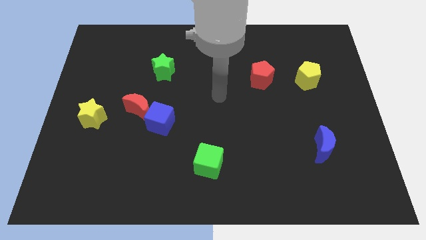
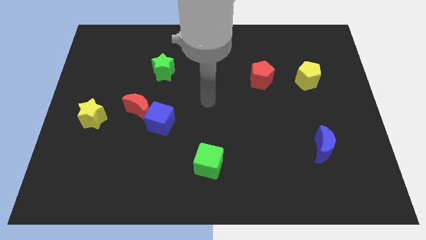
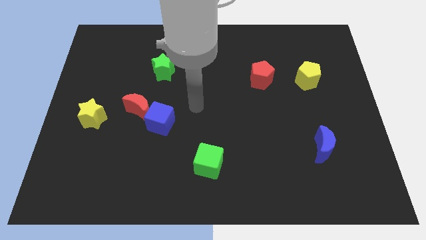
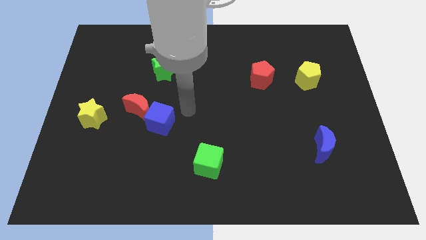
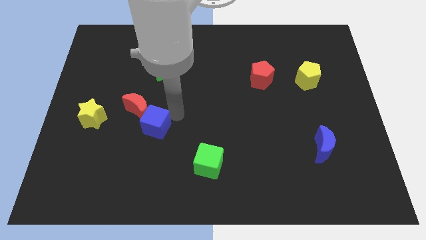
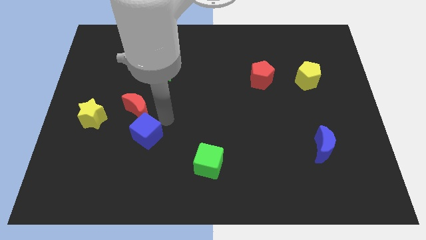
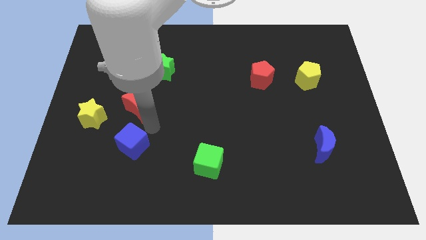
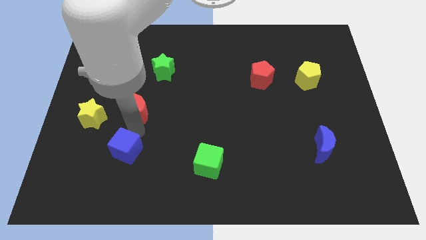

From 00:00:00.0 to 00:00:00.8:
move the red moon away from the blue cube

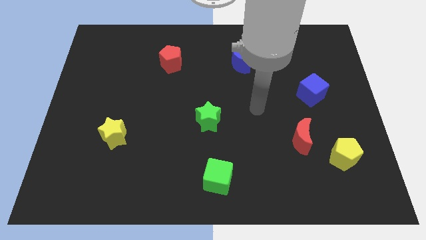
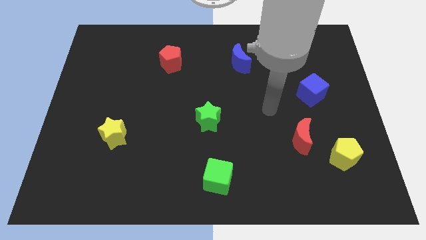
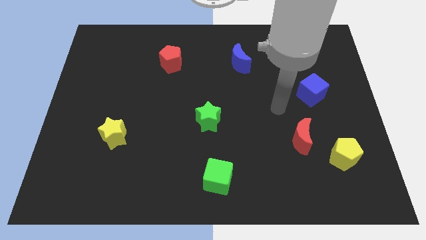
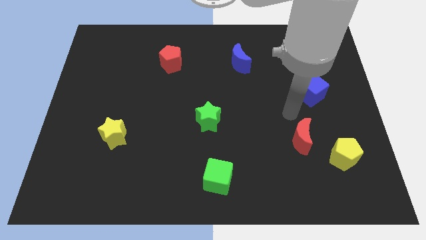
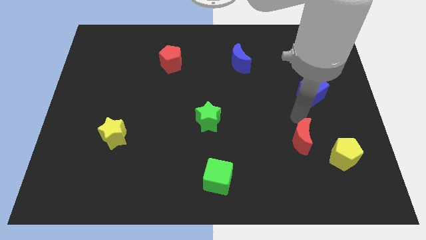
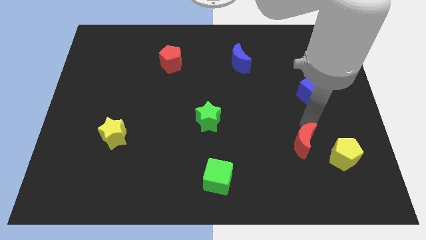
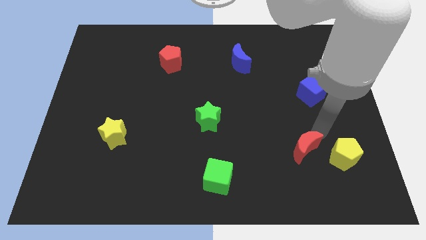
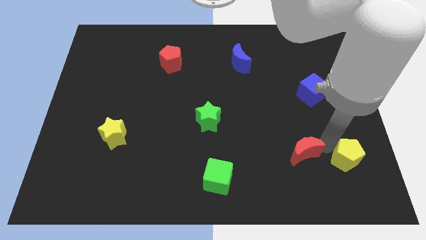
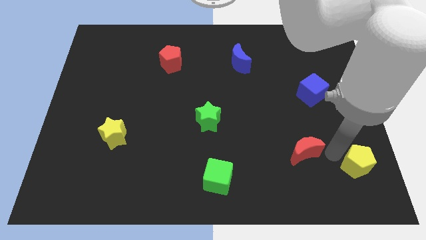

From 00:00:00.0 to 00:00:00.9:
pull the red moon apart from the yellow pentagon

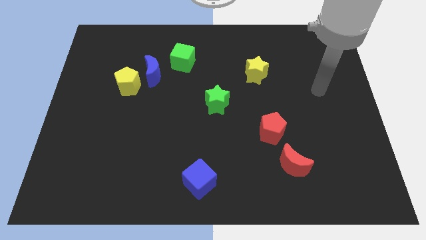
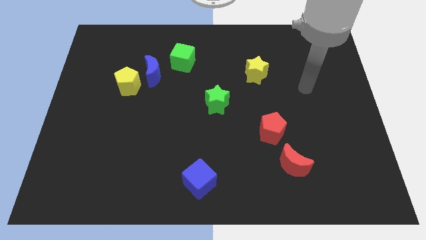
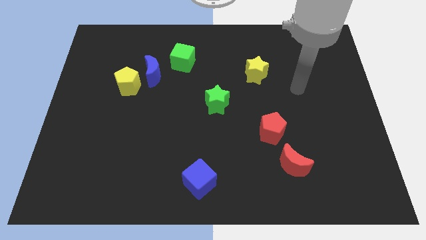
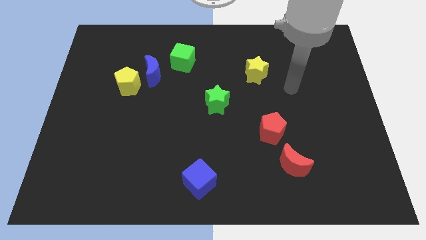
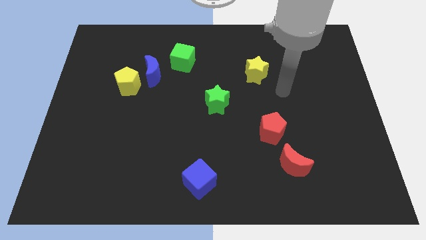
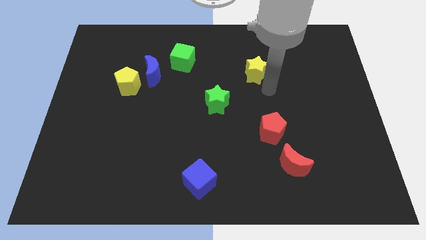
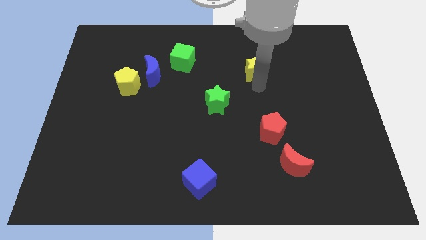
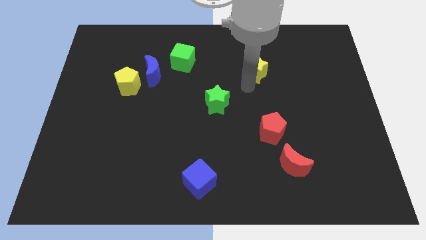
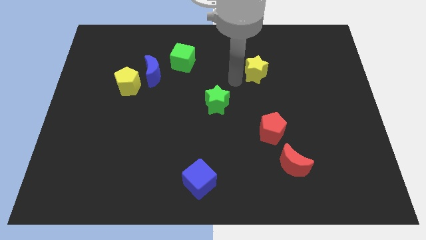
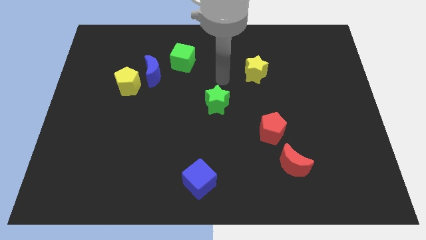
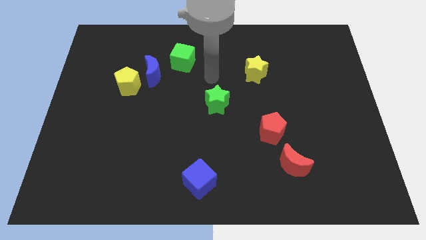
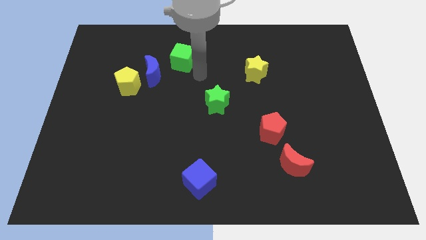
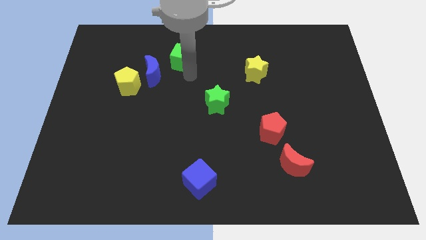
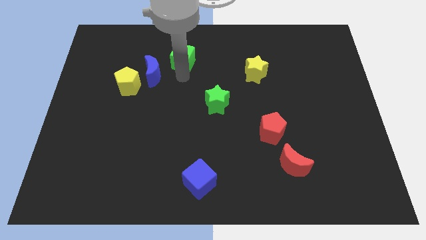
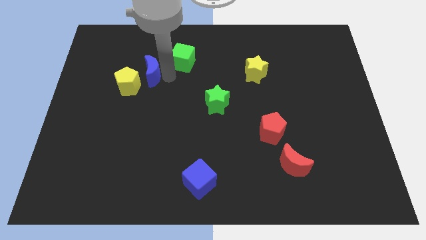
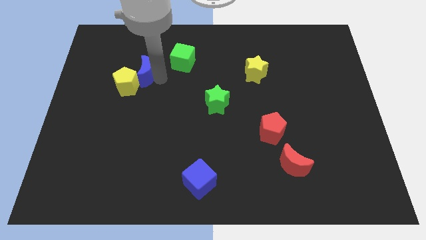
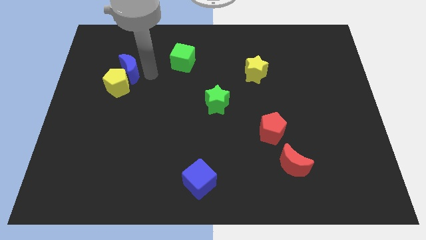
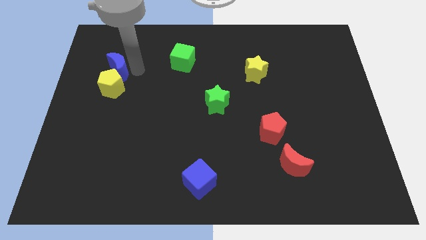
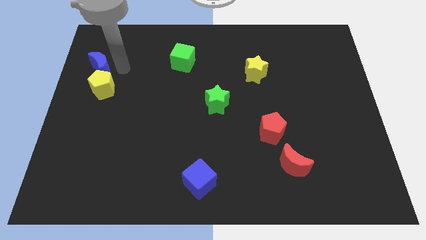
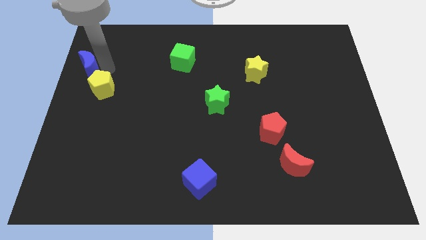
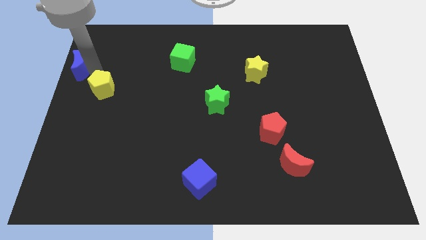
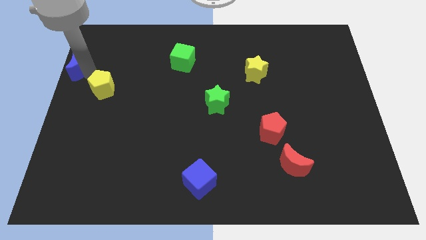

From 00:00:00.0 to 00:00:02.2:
pull the yellow pentagon apart from the blue moon

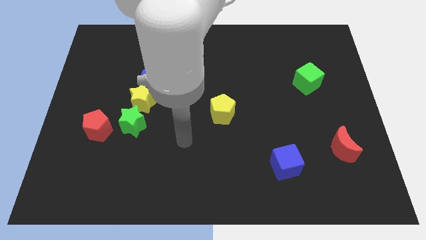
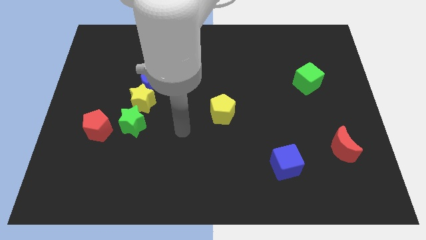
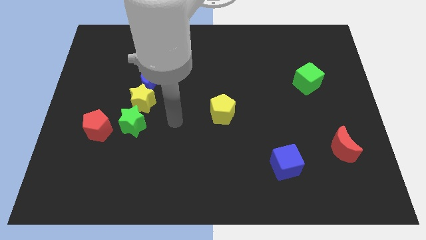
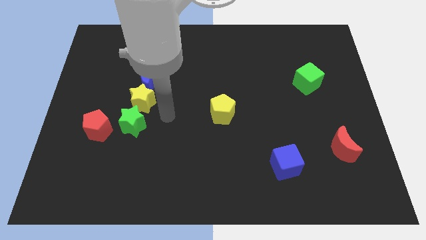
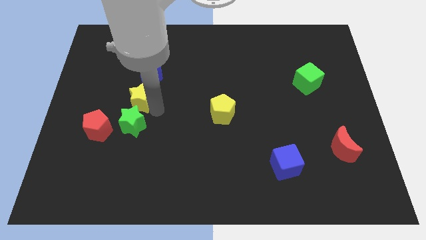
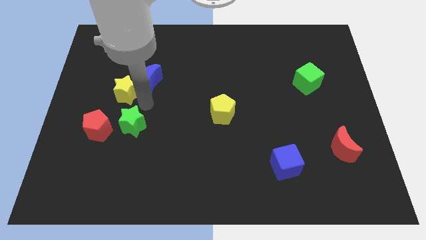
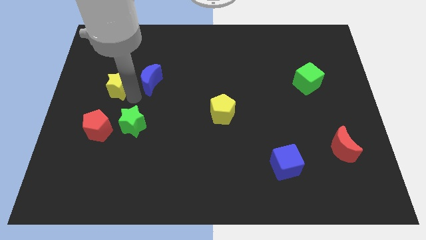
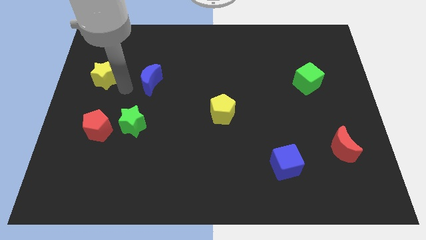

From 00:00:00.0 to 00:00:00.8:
pull the blue moon apart from the yellow star

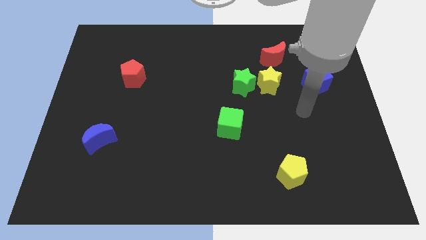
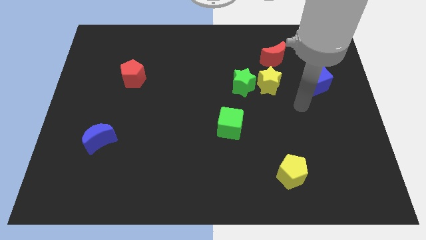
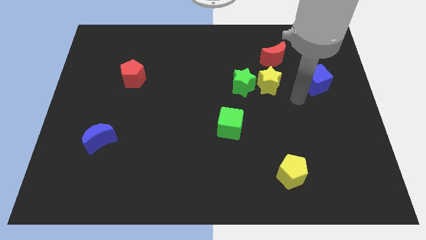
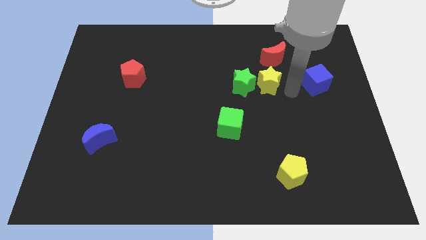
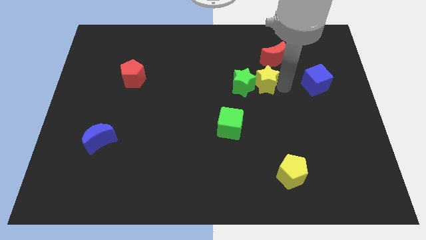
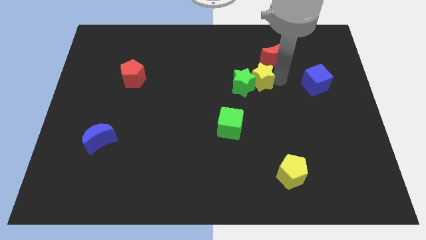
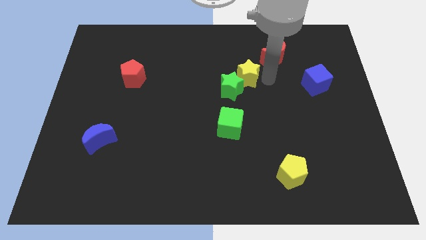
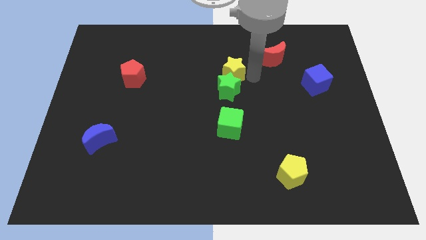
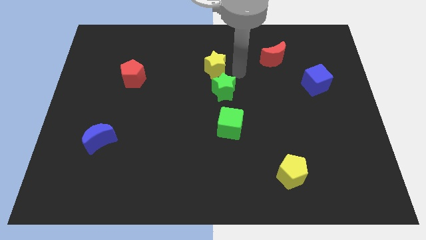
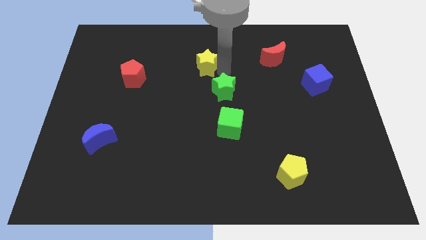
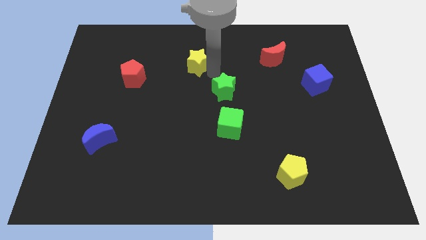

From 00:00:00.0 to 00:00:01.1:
pull the green star apart from the yellow star

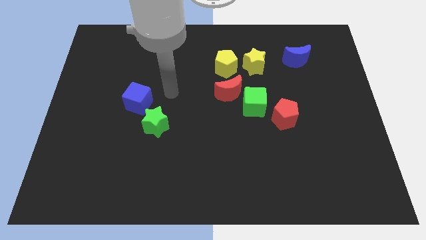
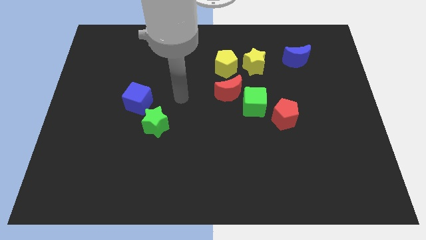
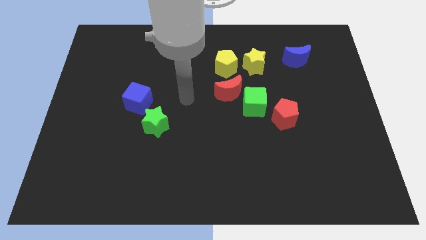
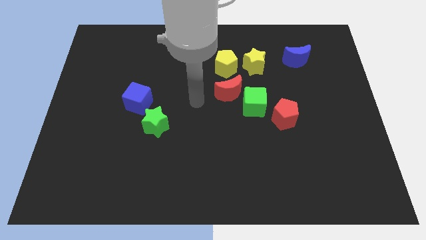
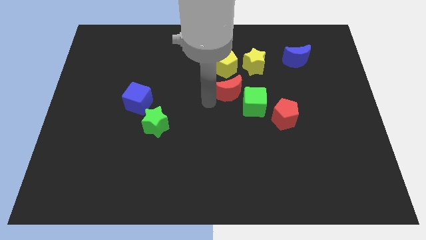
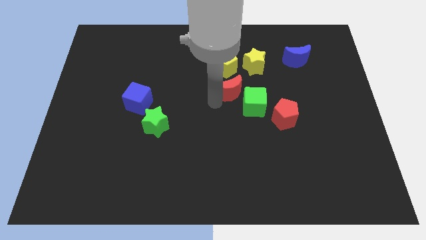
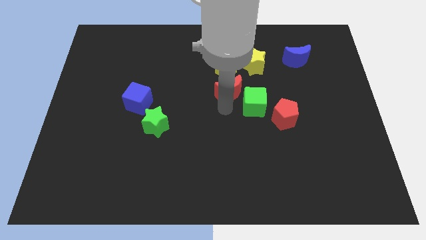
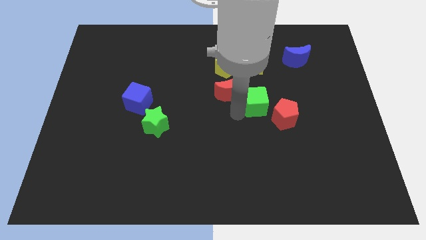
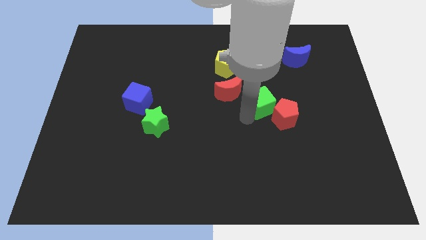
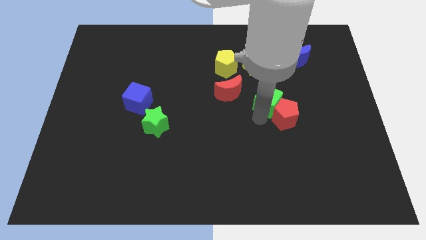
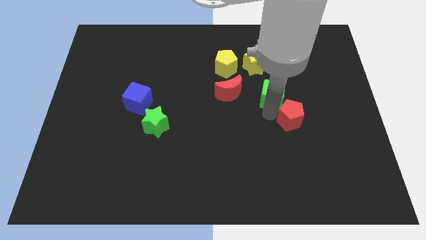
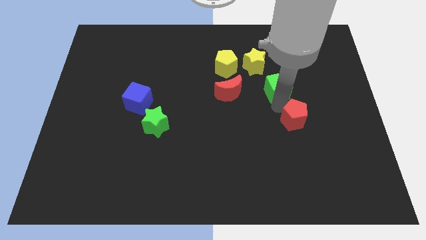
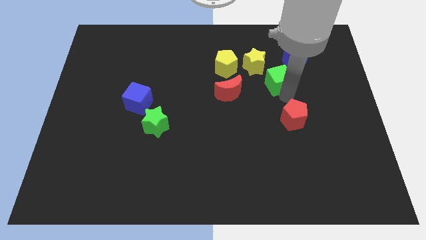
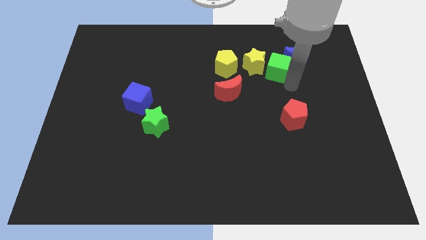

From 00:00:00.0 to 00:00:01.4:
pull the green cube apart from the red moon and red pentagon

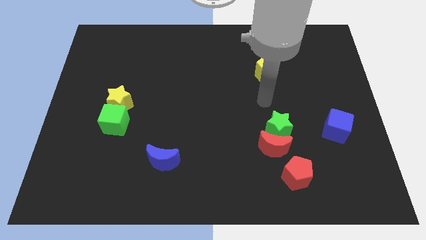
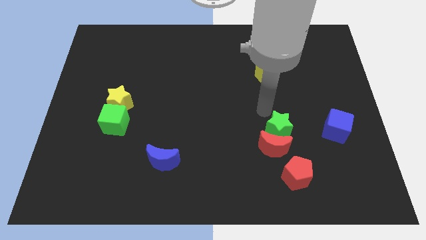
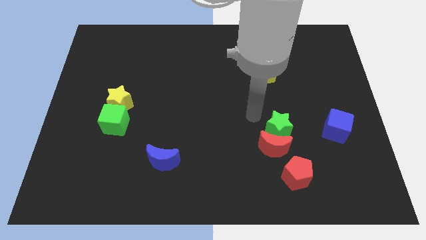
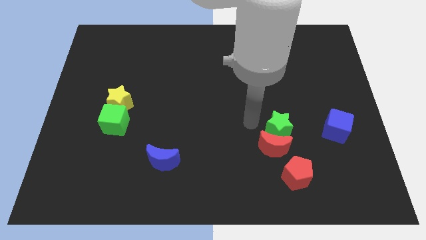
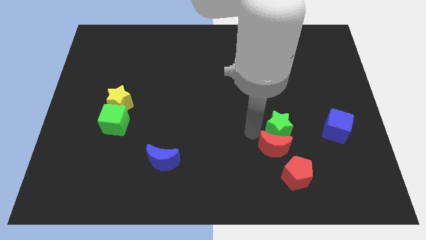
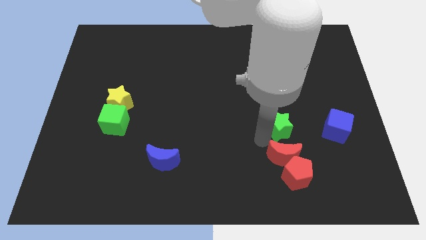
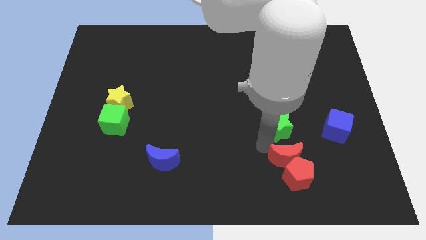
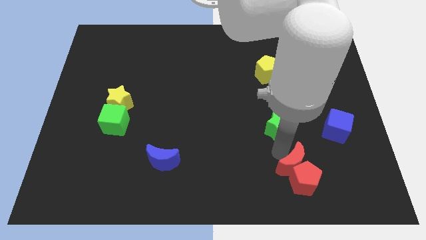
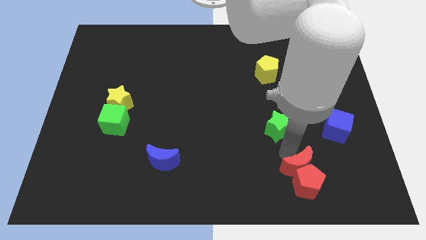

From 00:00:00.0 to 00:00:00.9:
separate the green star from the red moon

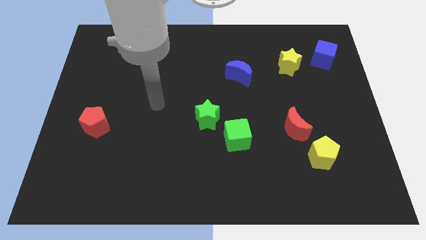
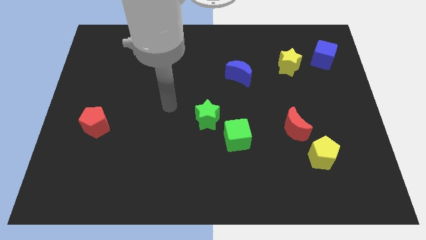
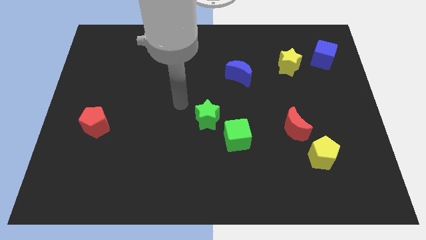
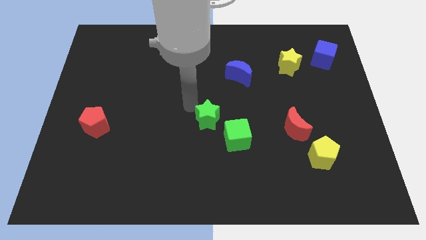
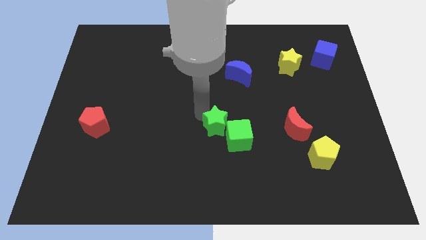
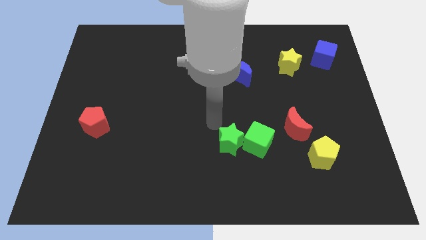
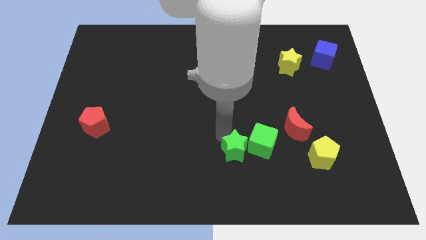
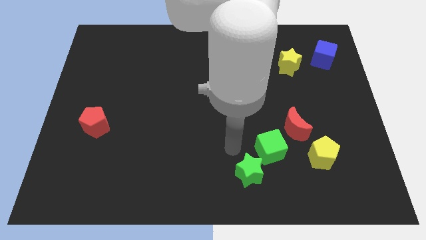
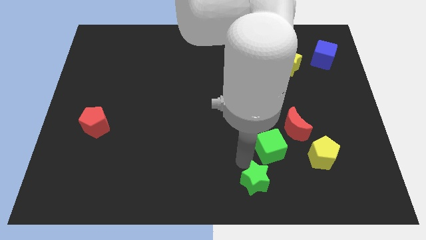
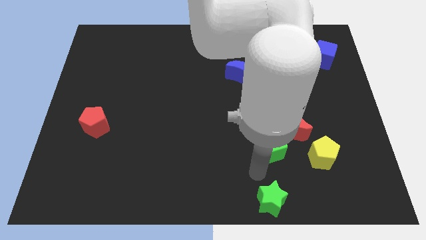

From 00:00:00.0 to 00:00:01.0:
separate the green cube from the green star

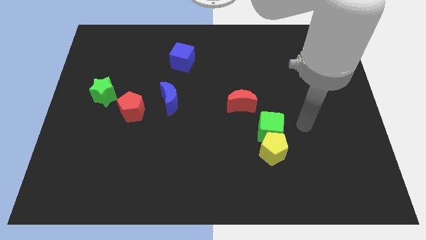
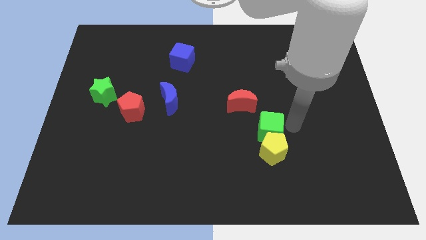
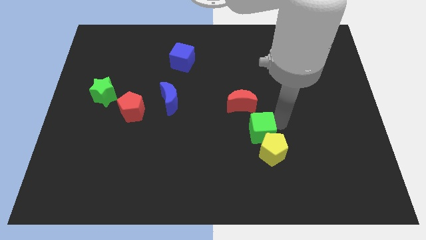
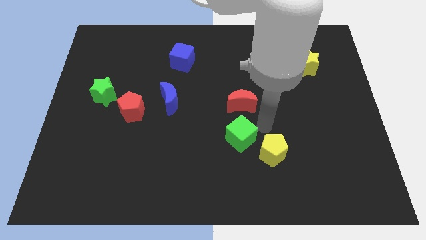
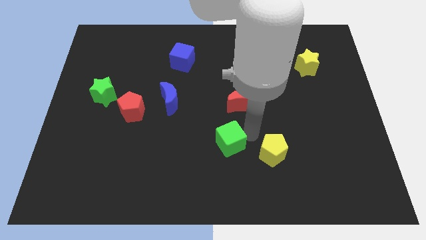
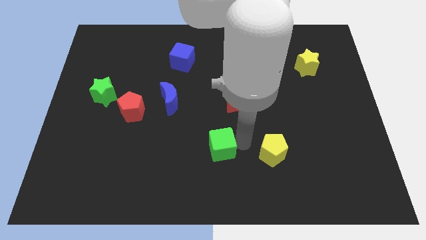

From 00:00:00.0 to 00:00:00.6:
pull the yellow pentagon apart from the green cube
